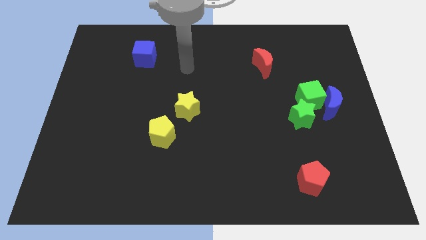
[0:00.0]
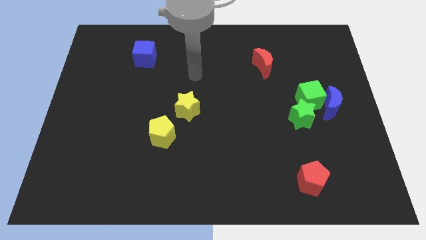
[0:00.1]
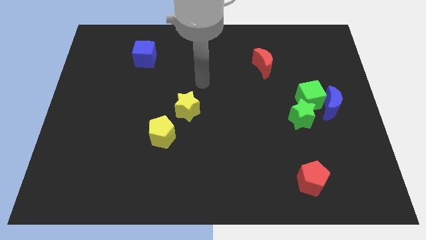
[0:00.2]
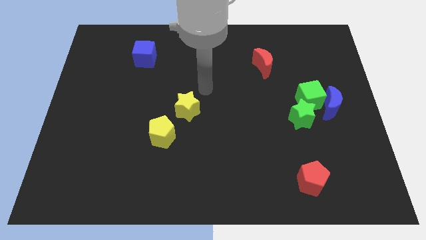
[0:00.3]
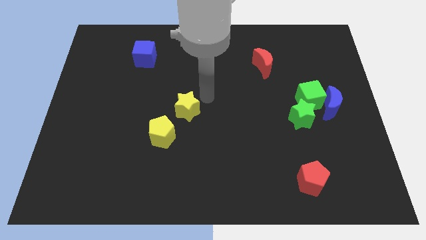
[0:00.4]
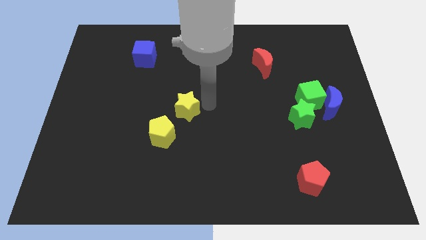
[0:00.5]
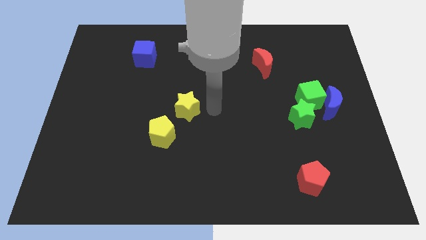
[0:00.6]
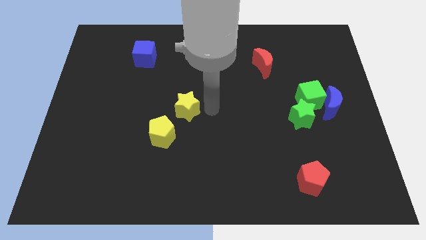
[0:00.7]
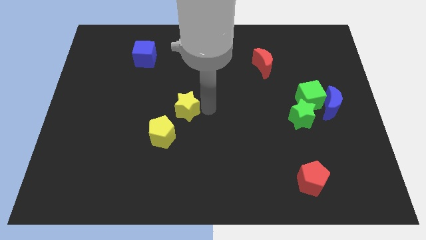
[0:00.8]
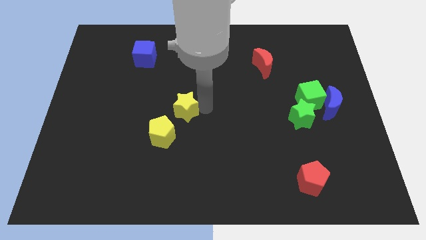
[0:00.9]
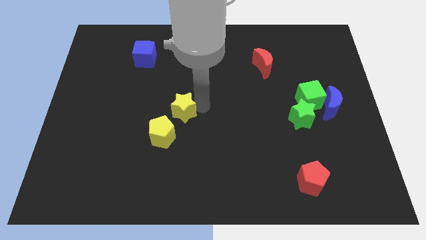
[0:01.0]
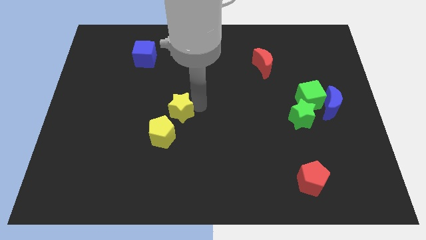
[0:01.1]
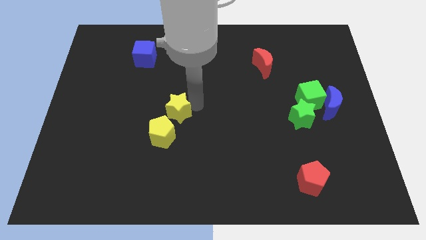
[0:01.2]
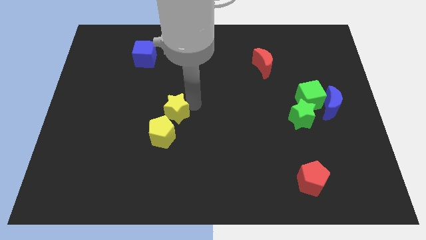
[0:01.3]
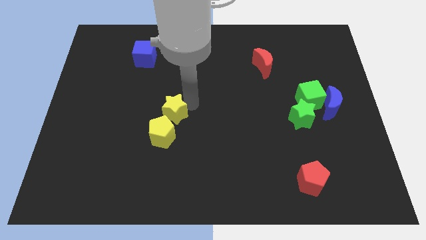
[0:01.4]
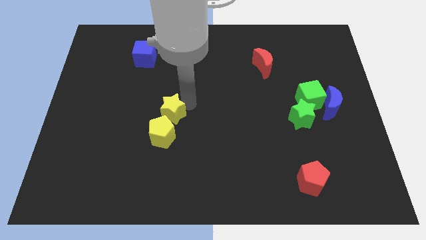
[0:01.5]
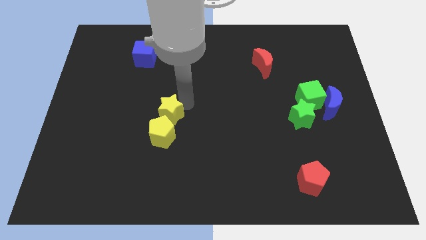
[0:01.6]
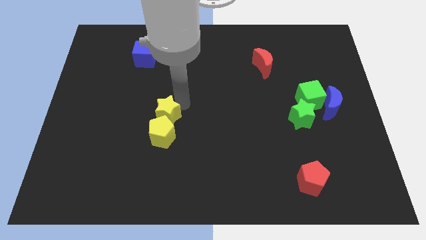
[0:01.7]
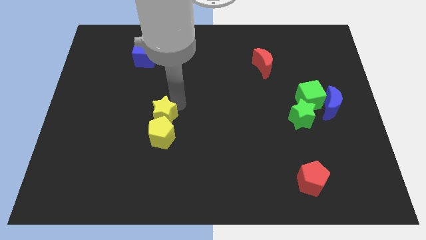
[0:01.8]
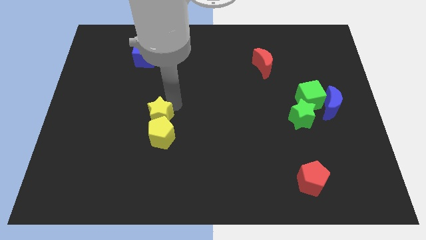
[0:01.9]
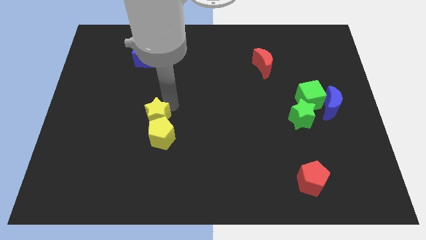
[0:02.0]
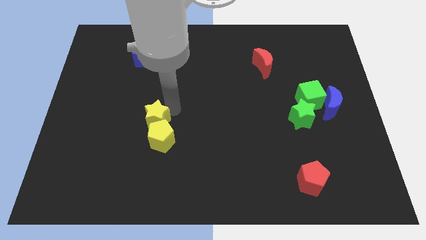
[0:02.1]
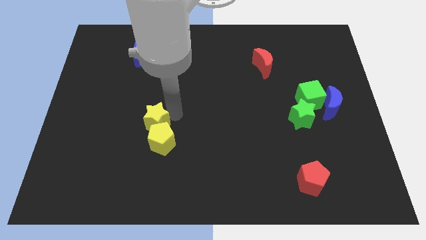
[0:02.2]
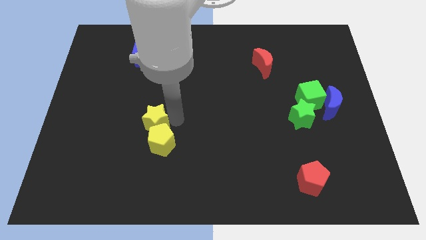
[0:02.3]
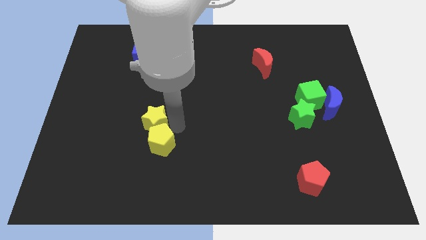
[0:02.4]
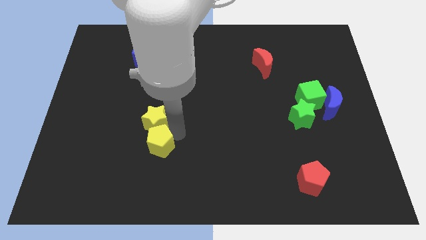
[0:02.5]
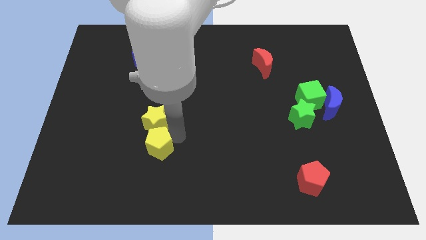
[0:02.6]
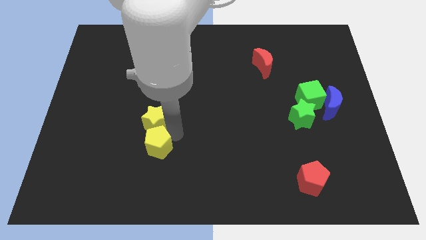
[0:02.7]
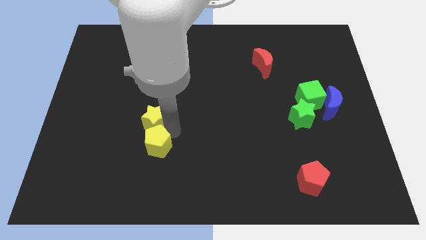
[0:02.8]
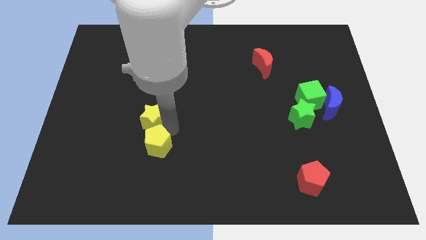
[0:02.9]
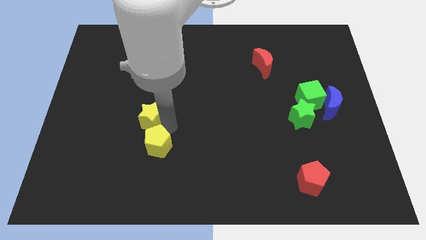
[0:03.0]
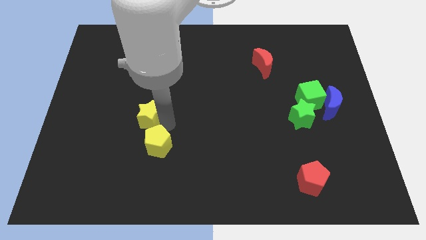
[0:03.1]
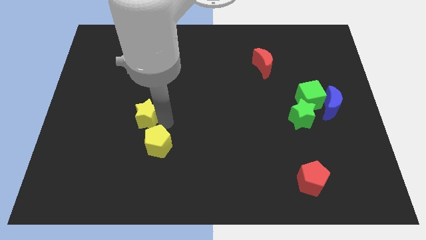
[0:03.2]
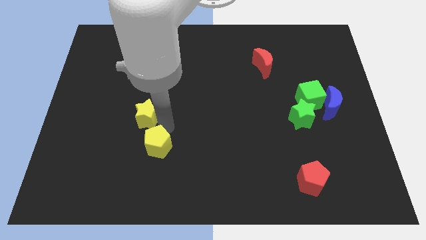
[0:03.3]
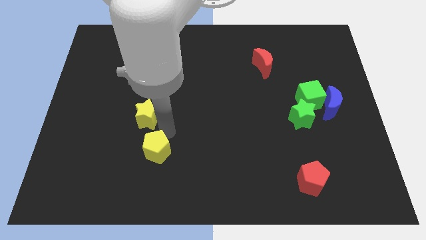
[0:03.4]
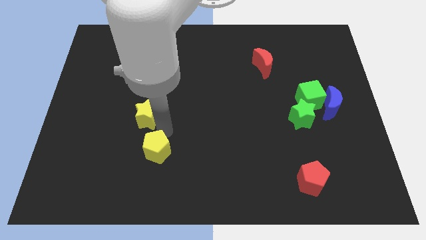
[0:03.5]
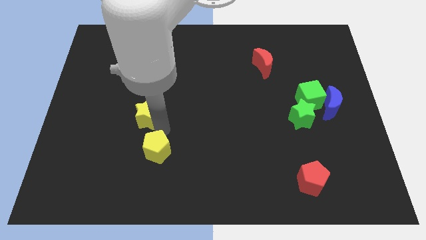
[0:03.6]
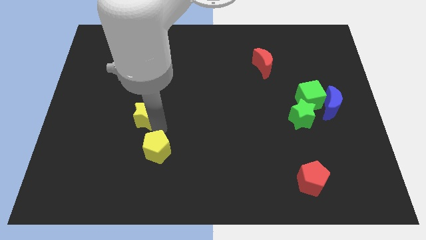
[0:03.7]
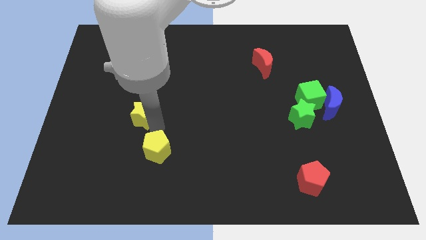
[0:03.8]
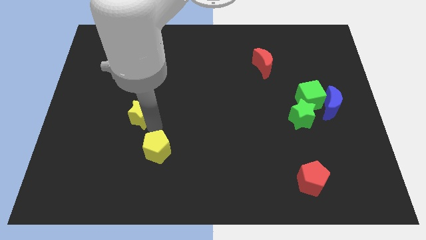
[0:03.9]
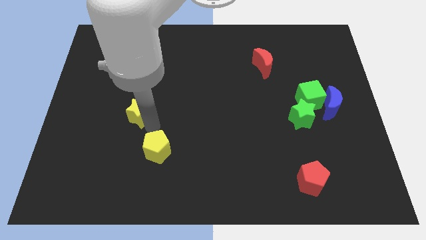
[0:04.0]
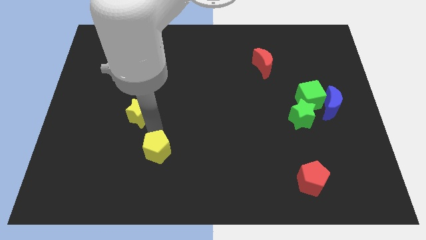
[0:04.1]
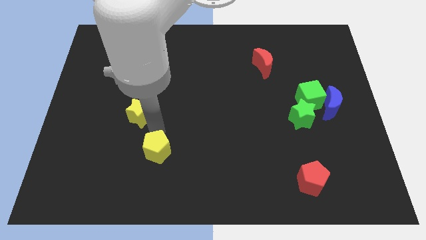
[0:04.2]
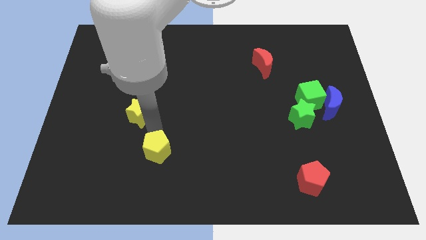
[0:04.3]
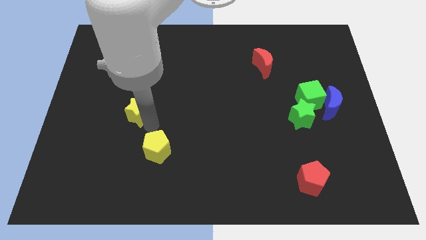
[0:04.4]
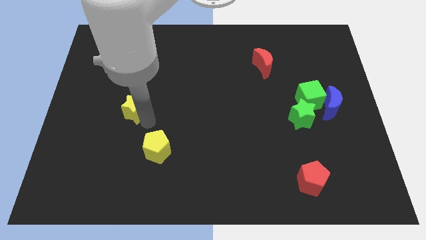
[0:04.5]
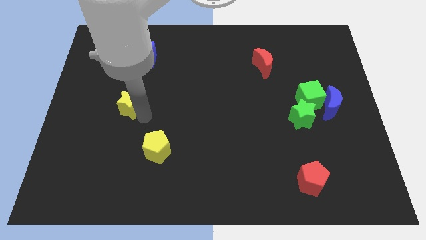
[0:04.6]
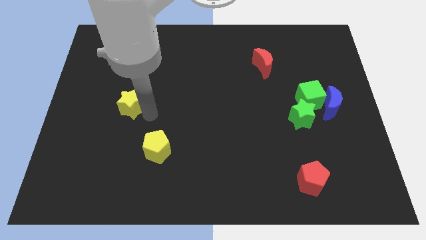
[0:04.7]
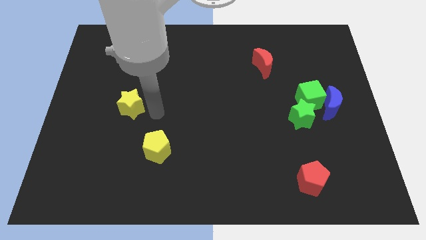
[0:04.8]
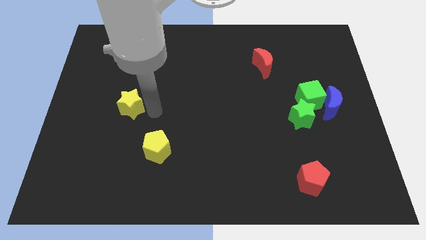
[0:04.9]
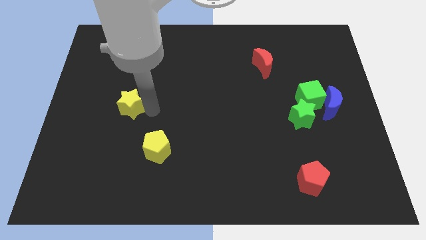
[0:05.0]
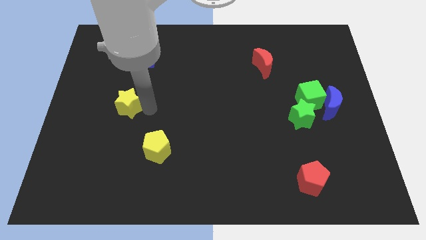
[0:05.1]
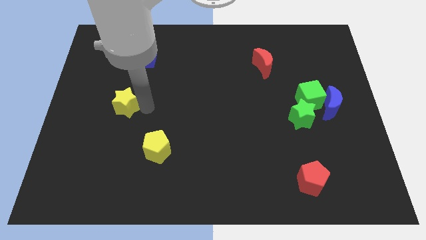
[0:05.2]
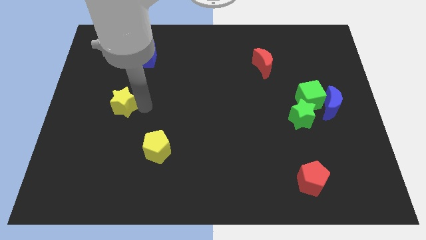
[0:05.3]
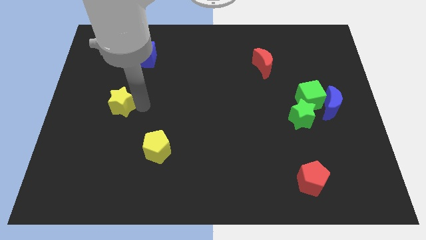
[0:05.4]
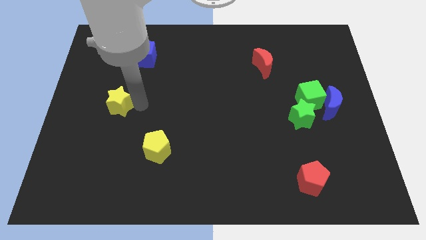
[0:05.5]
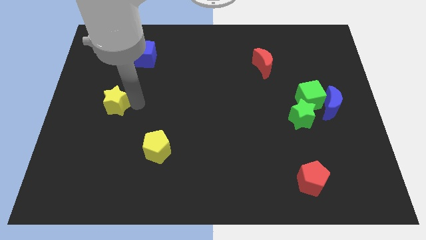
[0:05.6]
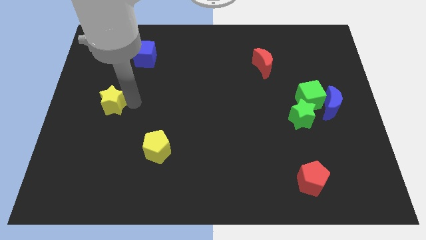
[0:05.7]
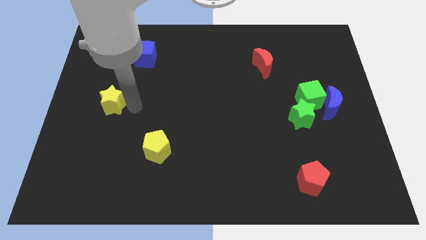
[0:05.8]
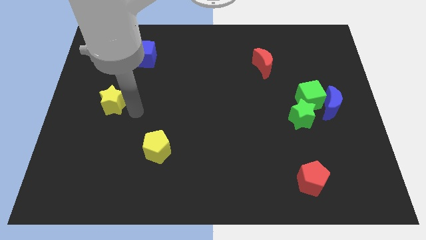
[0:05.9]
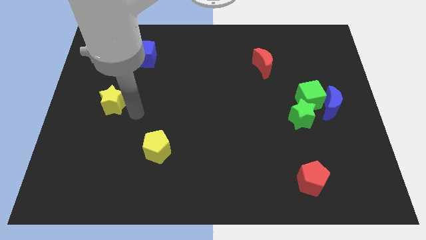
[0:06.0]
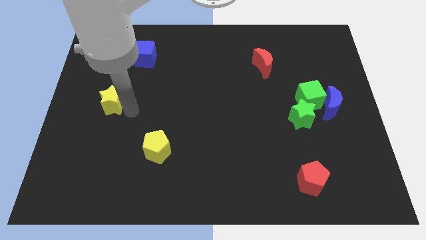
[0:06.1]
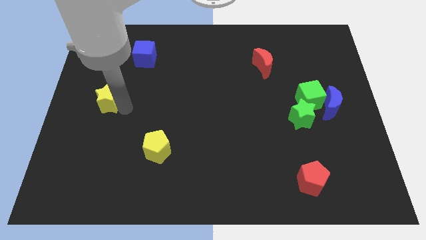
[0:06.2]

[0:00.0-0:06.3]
push the yellow star to the center left
